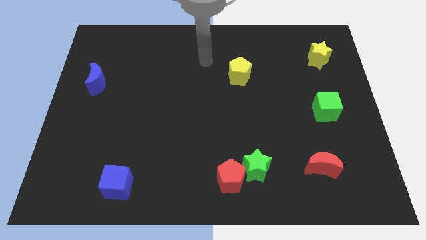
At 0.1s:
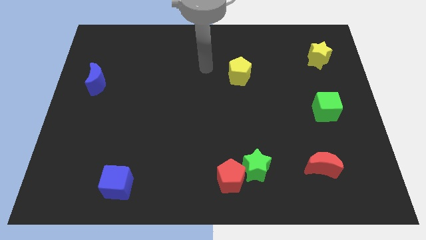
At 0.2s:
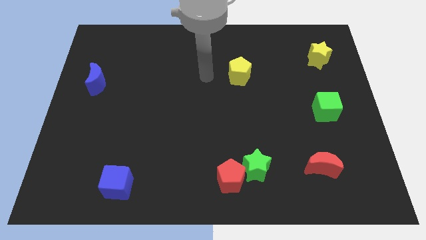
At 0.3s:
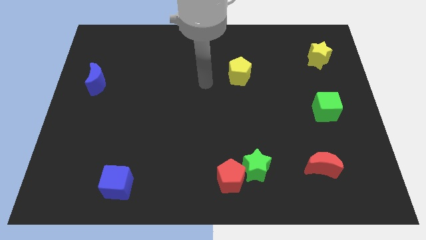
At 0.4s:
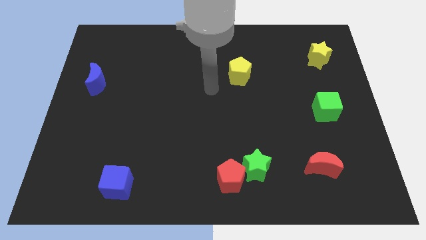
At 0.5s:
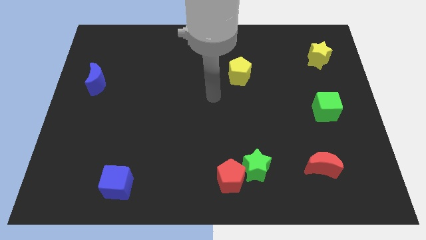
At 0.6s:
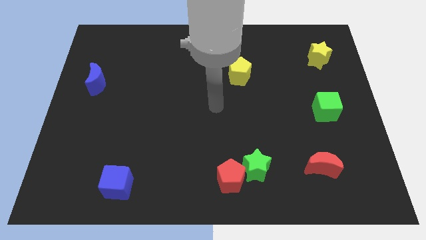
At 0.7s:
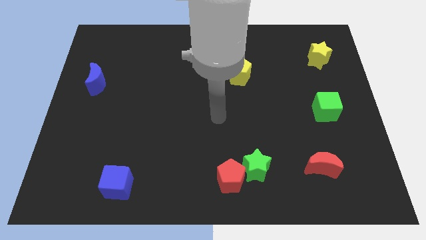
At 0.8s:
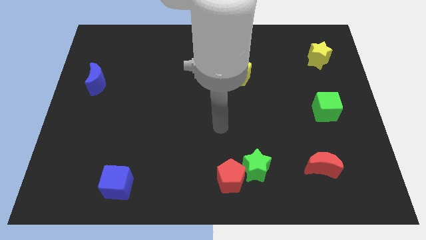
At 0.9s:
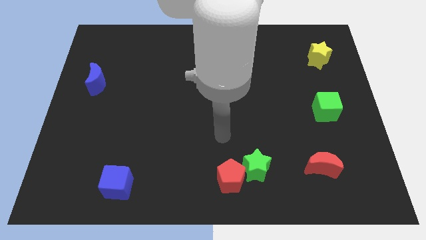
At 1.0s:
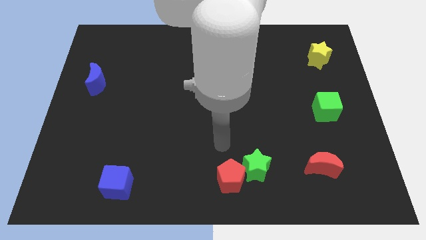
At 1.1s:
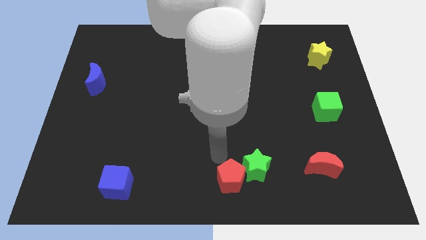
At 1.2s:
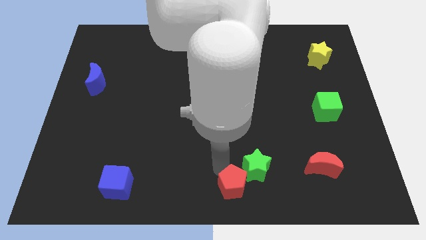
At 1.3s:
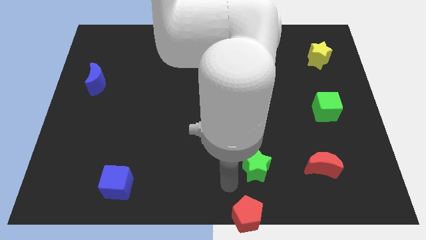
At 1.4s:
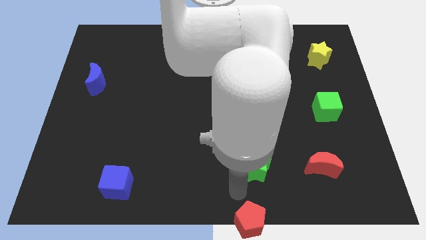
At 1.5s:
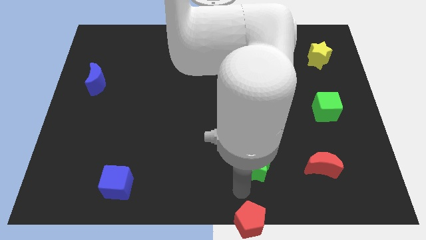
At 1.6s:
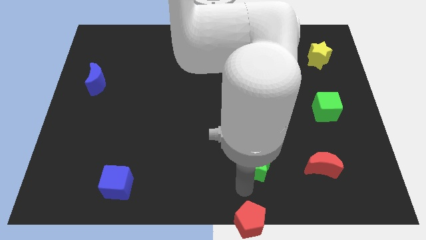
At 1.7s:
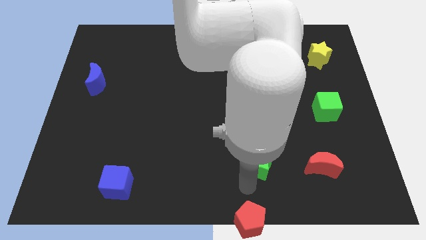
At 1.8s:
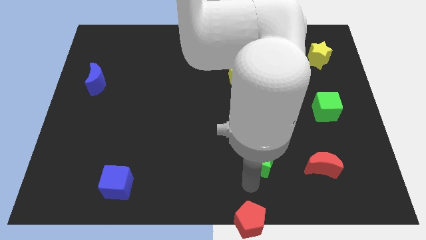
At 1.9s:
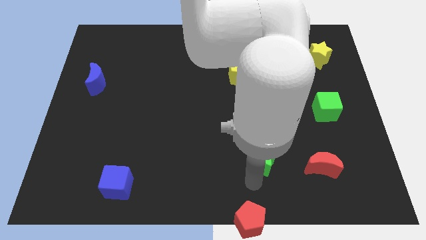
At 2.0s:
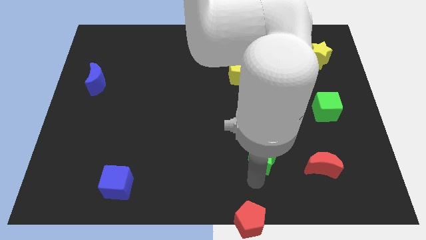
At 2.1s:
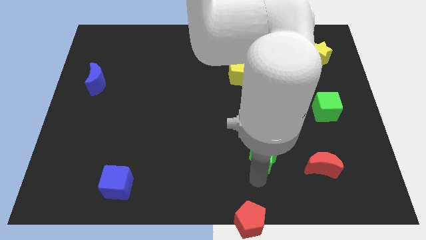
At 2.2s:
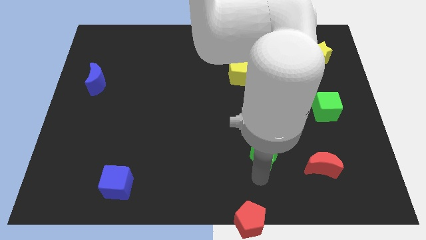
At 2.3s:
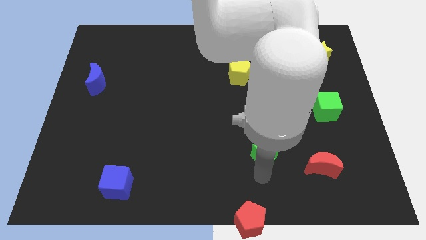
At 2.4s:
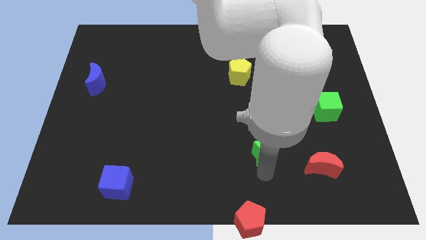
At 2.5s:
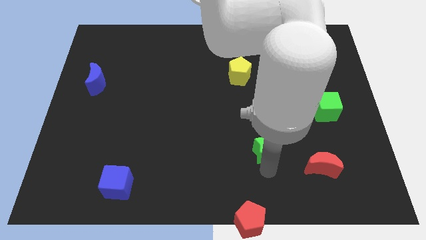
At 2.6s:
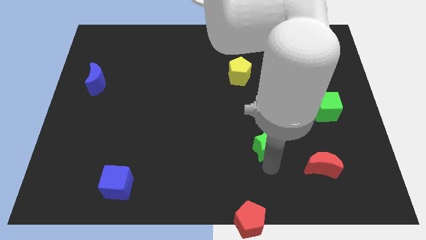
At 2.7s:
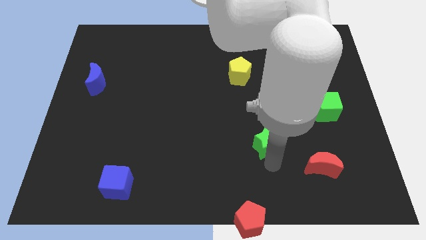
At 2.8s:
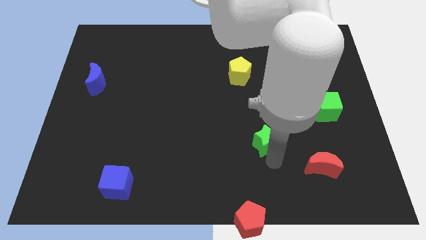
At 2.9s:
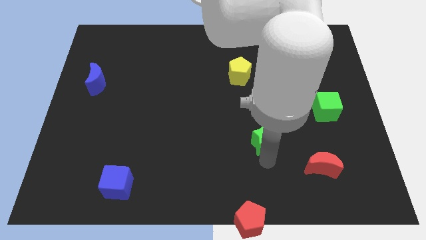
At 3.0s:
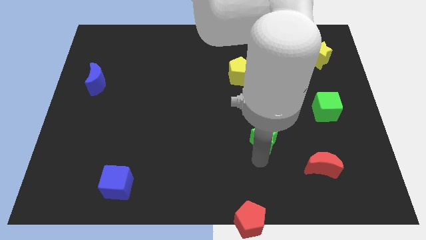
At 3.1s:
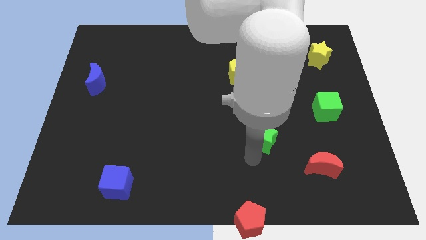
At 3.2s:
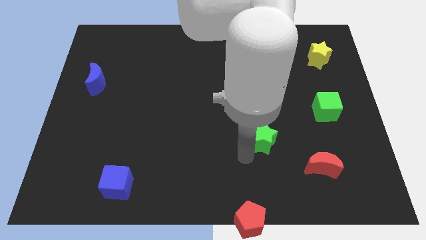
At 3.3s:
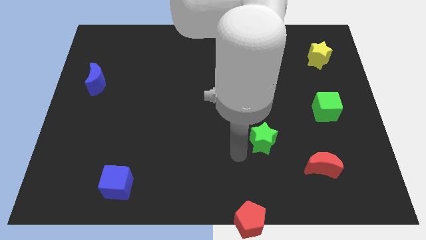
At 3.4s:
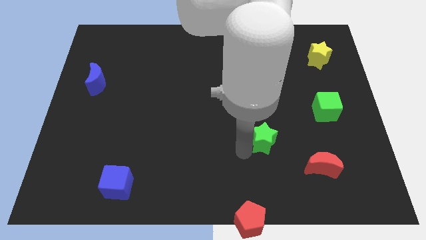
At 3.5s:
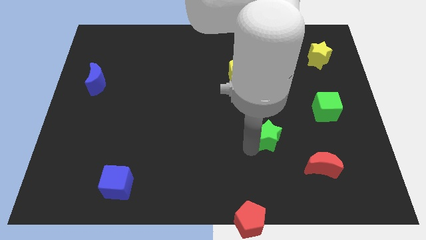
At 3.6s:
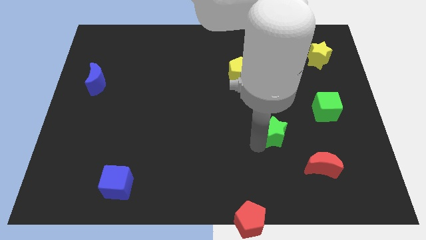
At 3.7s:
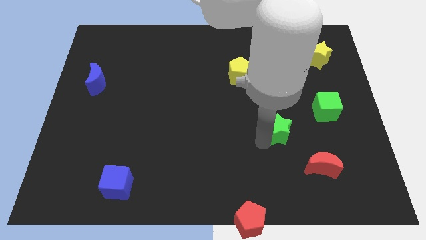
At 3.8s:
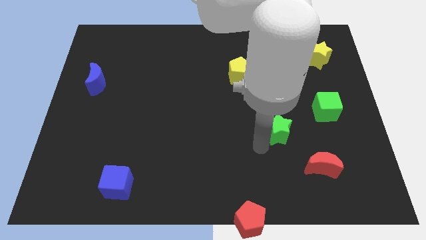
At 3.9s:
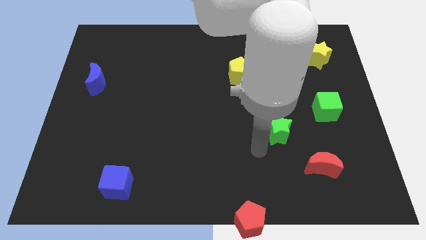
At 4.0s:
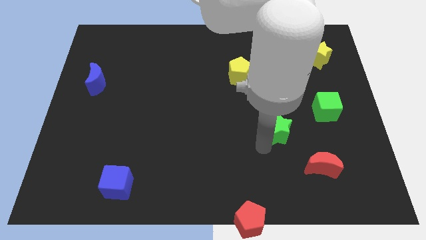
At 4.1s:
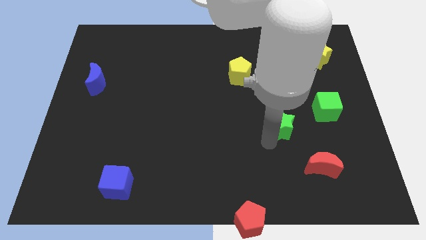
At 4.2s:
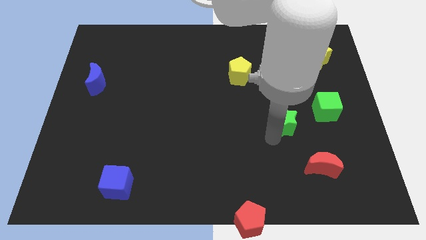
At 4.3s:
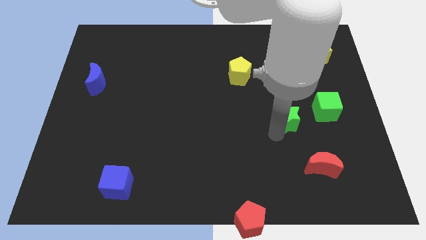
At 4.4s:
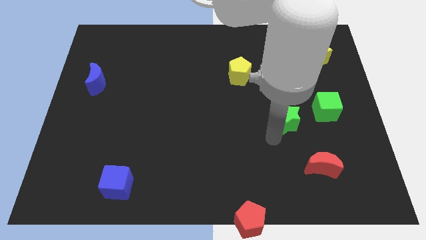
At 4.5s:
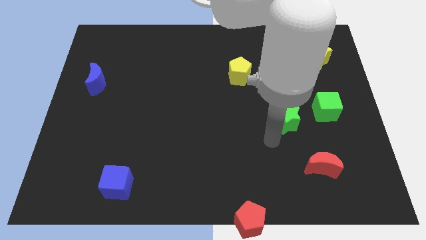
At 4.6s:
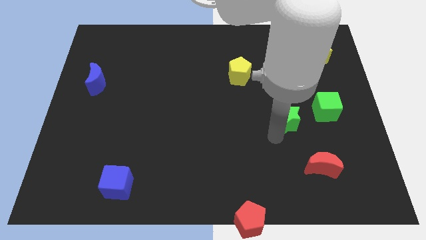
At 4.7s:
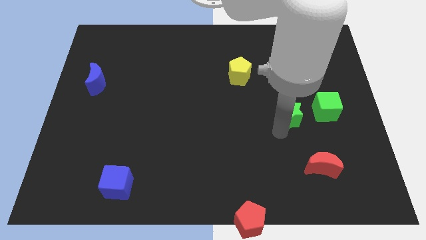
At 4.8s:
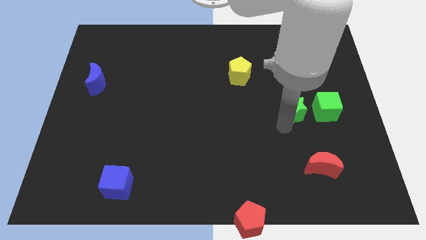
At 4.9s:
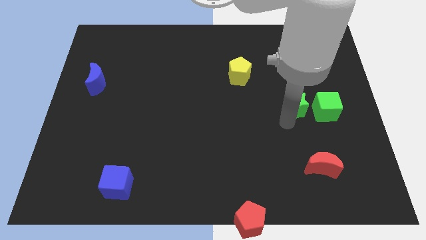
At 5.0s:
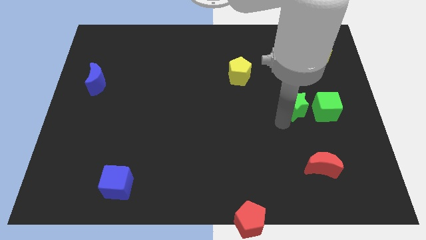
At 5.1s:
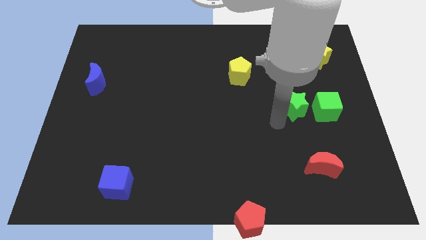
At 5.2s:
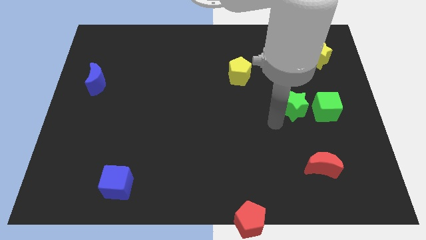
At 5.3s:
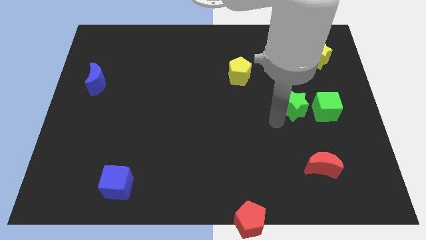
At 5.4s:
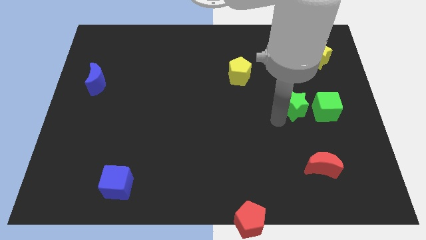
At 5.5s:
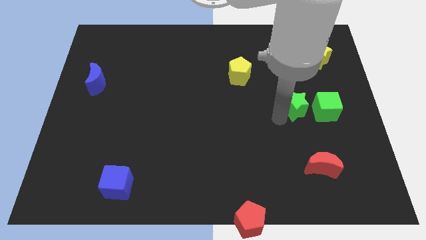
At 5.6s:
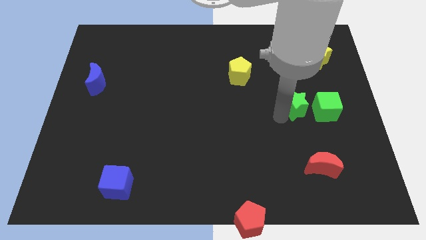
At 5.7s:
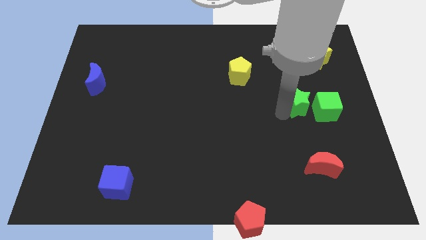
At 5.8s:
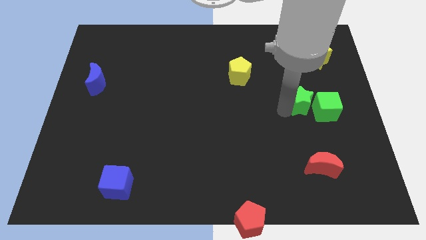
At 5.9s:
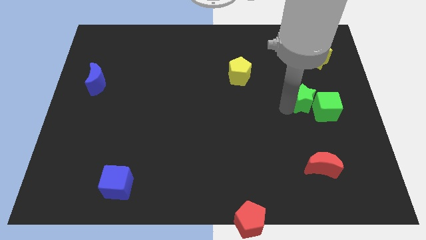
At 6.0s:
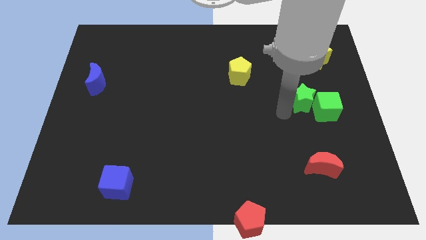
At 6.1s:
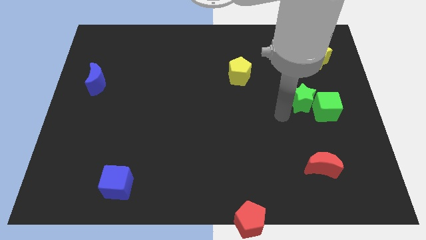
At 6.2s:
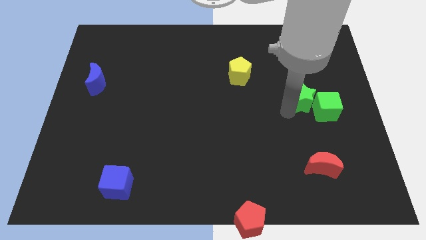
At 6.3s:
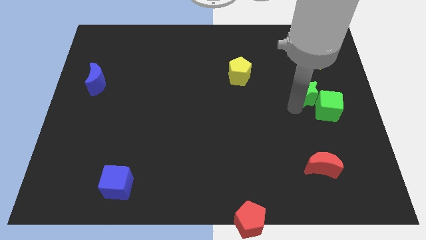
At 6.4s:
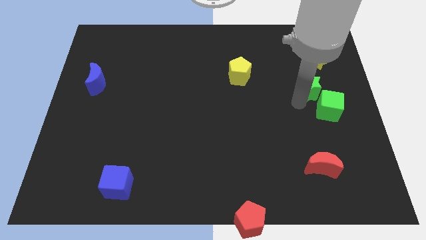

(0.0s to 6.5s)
move the green star to the bottom side of the yellow star
